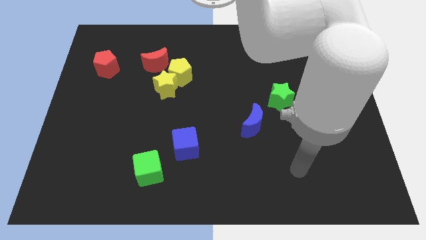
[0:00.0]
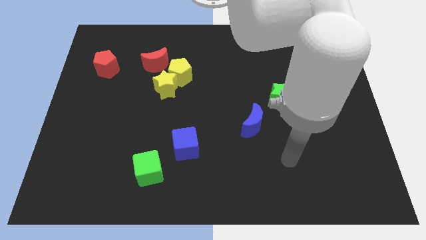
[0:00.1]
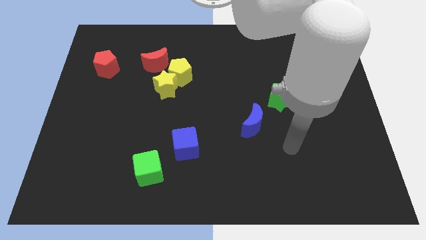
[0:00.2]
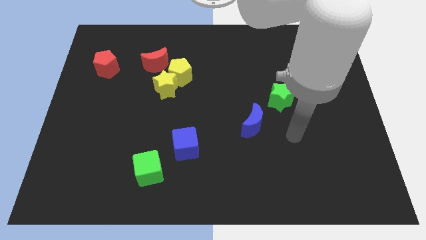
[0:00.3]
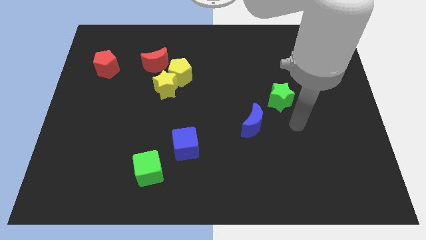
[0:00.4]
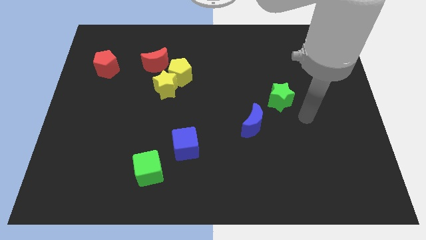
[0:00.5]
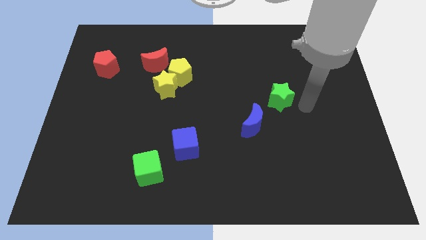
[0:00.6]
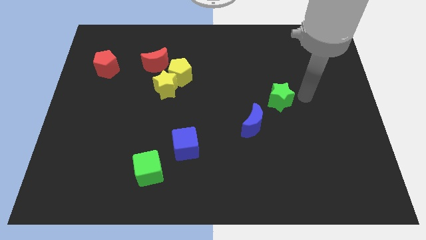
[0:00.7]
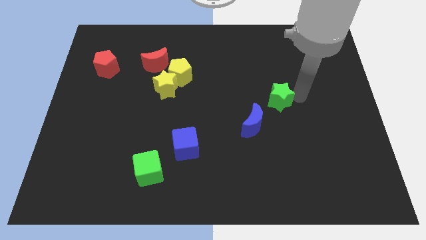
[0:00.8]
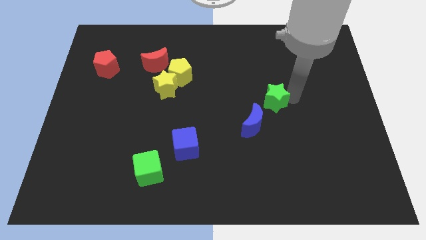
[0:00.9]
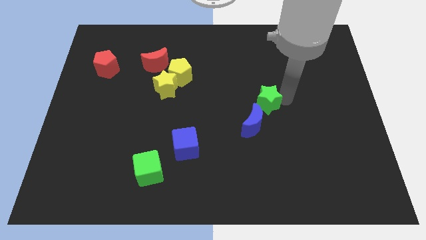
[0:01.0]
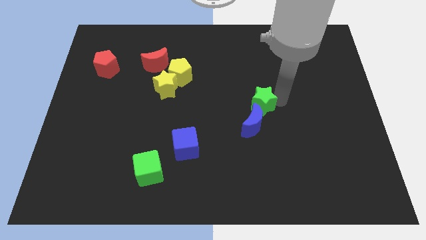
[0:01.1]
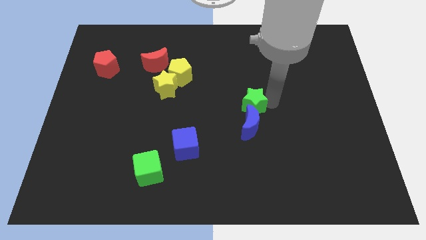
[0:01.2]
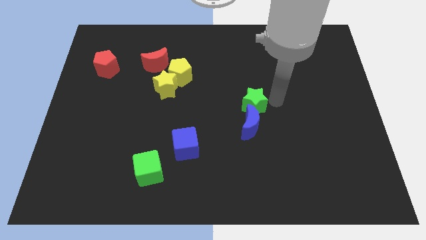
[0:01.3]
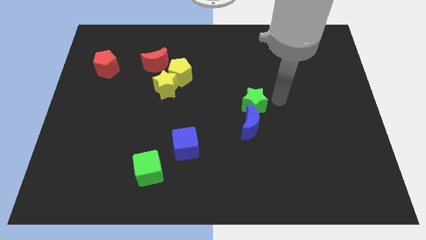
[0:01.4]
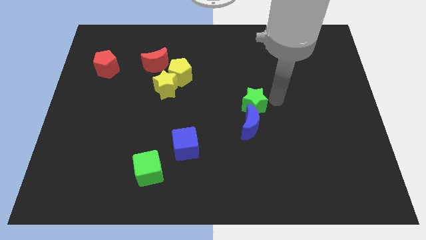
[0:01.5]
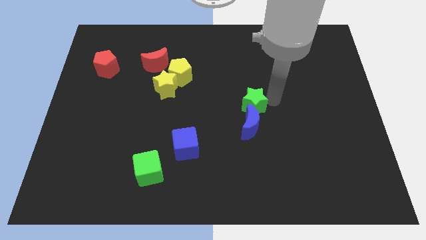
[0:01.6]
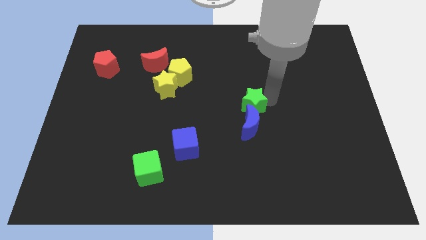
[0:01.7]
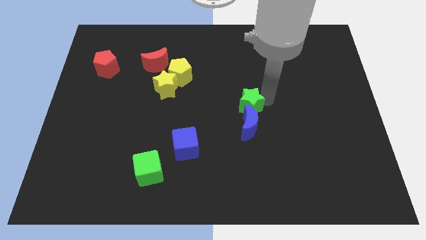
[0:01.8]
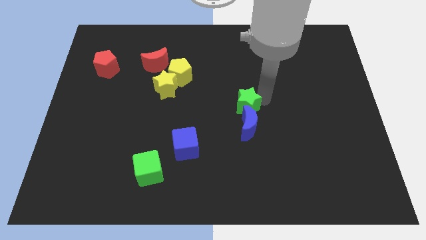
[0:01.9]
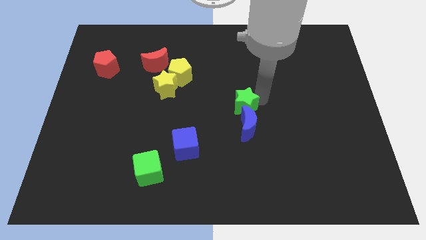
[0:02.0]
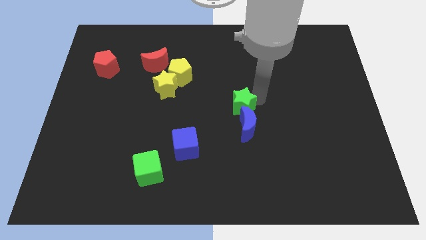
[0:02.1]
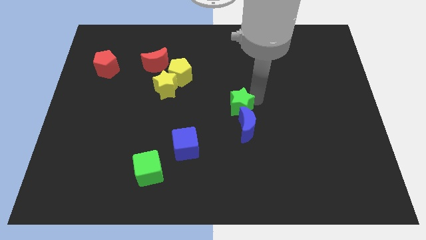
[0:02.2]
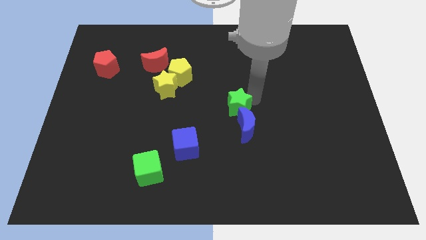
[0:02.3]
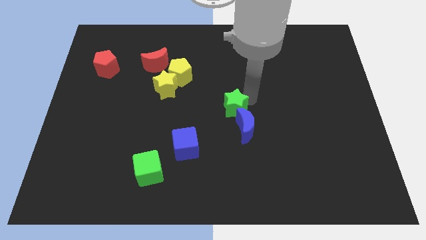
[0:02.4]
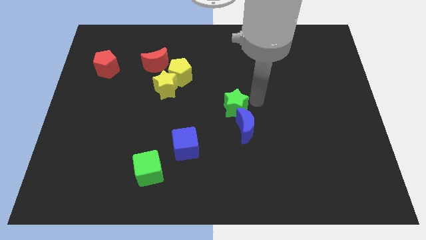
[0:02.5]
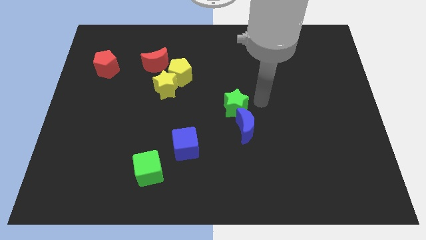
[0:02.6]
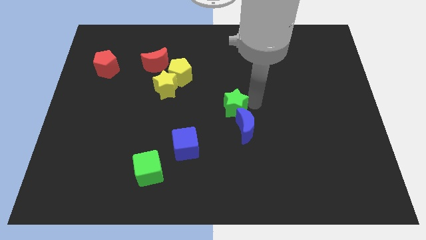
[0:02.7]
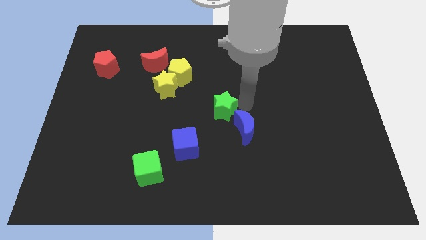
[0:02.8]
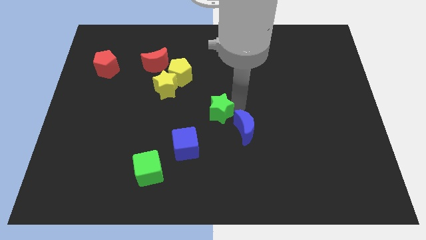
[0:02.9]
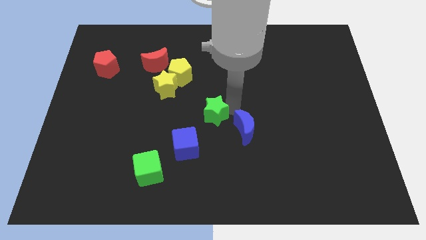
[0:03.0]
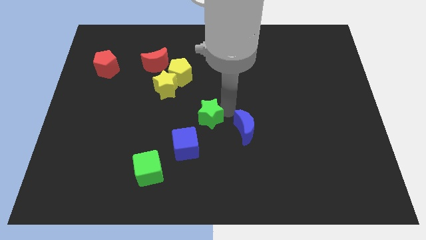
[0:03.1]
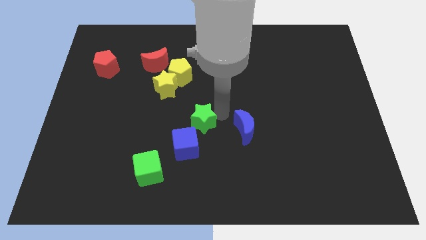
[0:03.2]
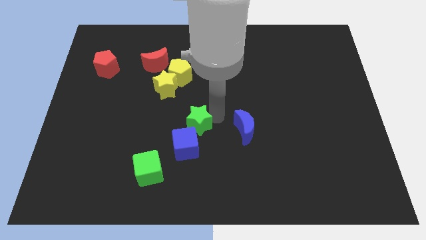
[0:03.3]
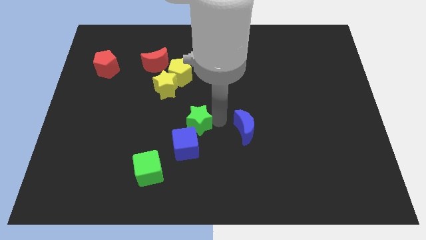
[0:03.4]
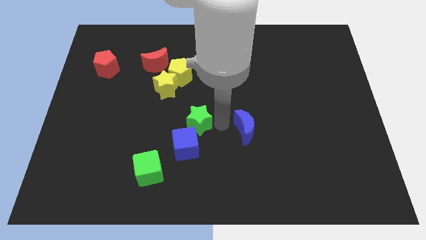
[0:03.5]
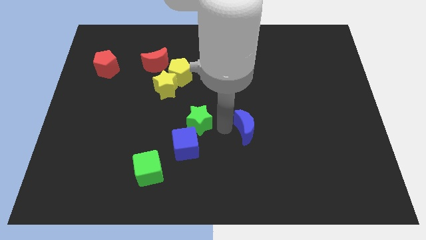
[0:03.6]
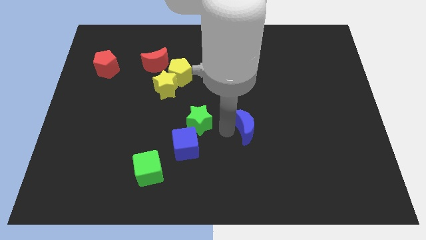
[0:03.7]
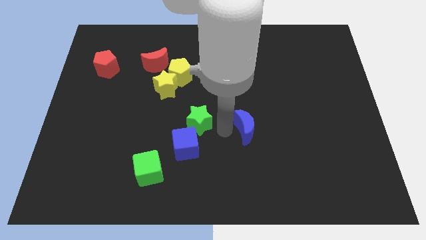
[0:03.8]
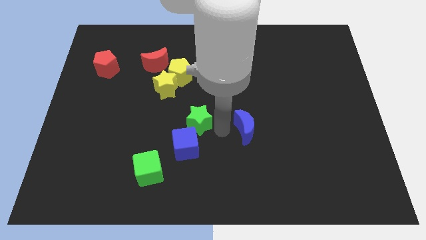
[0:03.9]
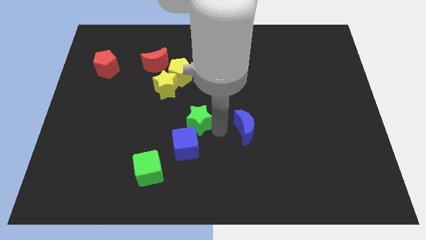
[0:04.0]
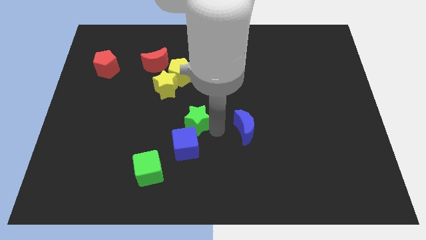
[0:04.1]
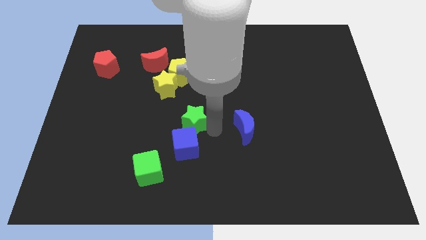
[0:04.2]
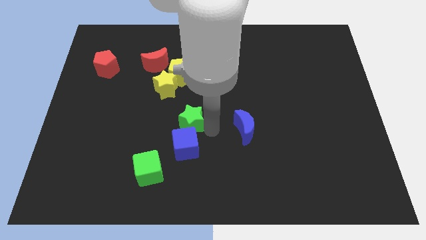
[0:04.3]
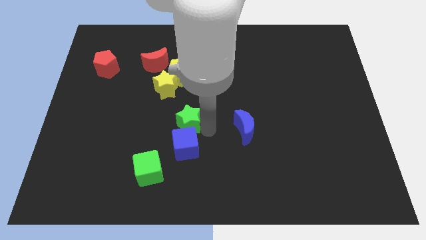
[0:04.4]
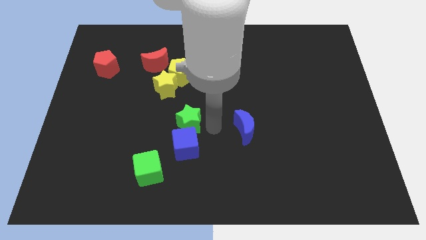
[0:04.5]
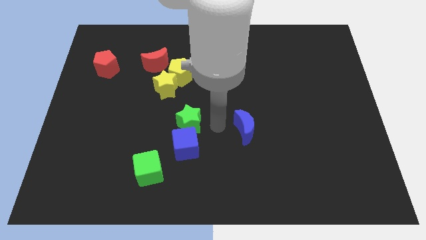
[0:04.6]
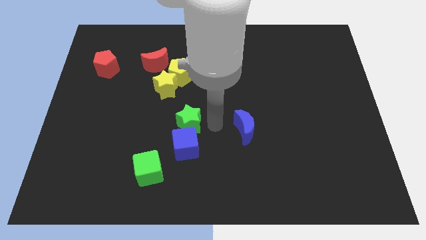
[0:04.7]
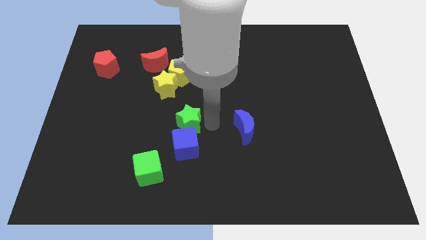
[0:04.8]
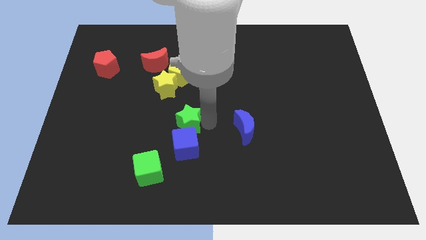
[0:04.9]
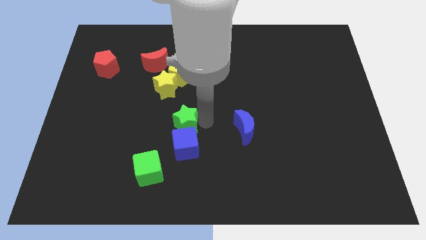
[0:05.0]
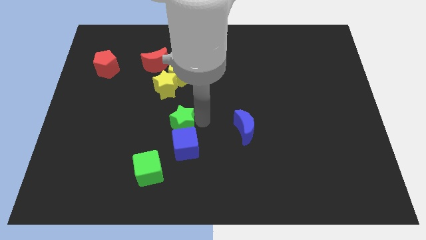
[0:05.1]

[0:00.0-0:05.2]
put the green star to the bottom side of the yellow star

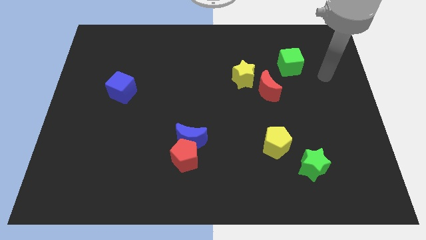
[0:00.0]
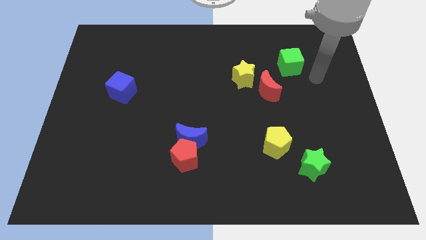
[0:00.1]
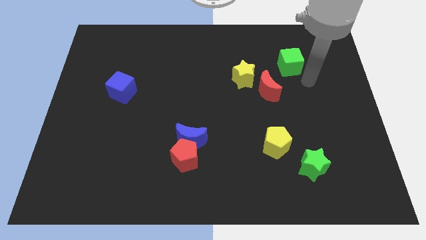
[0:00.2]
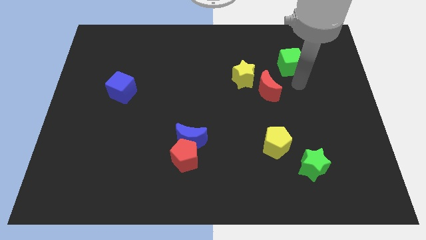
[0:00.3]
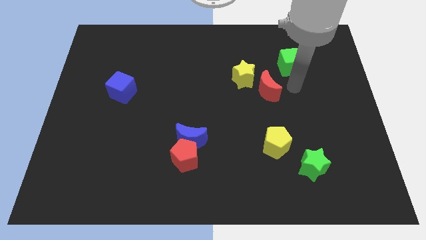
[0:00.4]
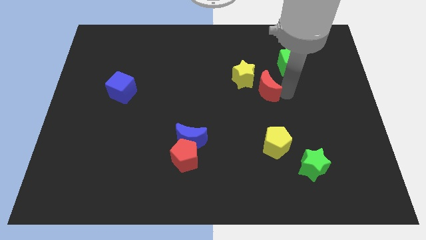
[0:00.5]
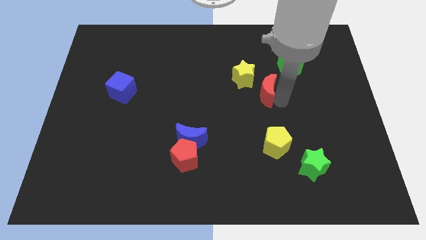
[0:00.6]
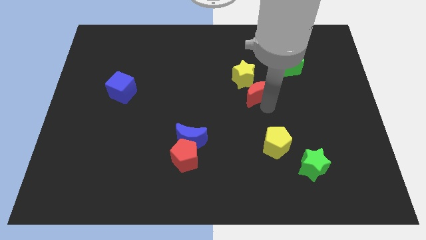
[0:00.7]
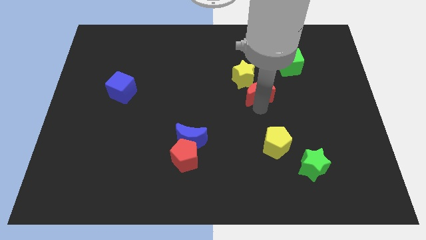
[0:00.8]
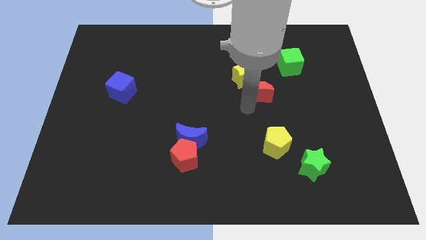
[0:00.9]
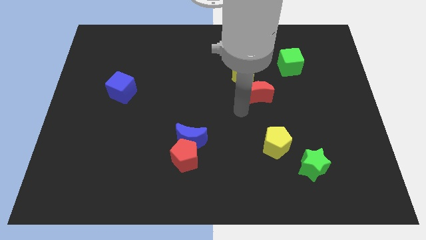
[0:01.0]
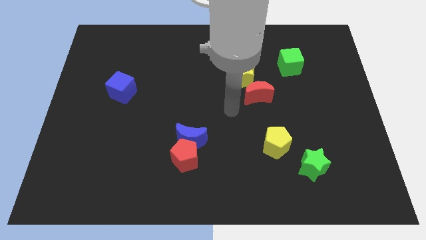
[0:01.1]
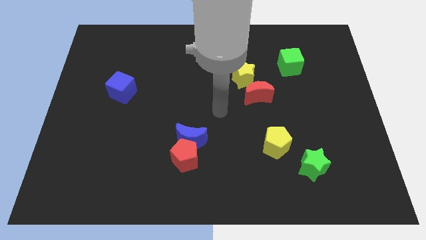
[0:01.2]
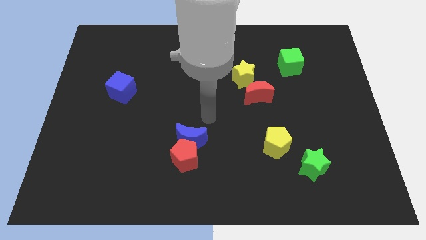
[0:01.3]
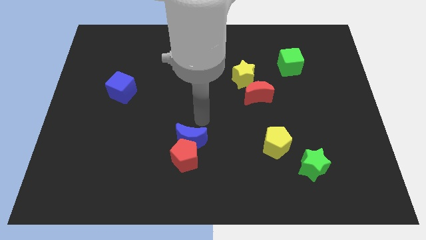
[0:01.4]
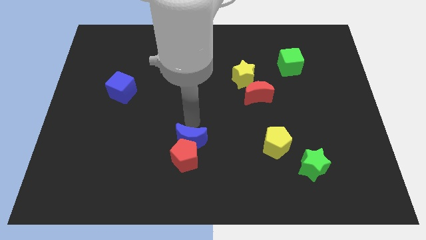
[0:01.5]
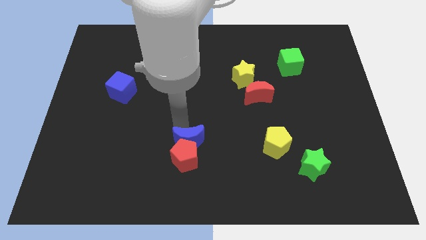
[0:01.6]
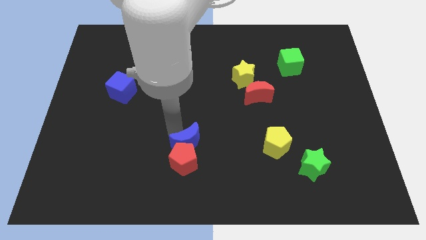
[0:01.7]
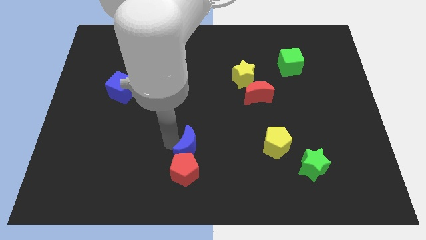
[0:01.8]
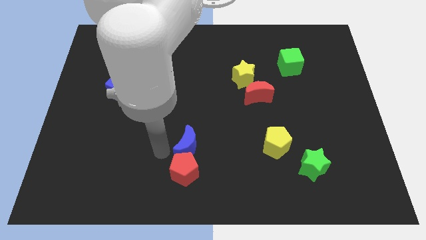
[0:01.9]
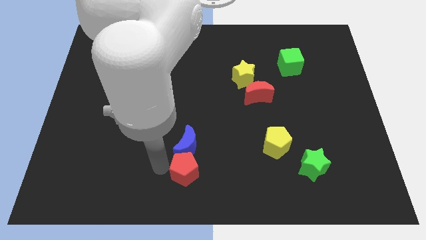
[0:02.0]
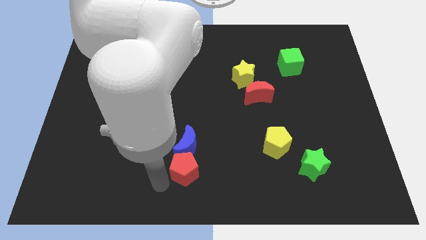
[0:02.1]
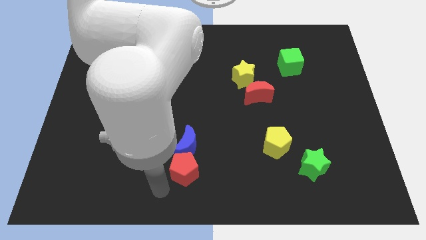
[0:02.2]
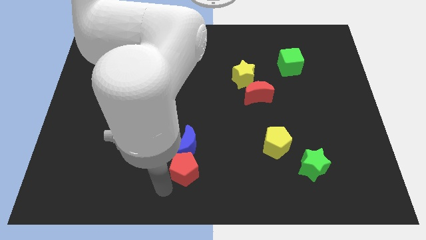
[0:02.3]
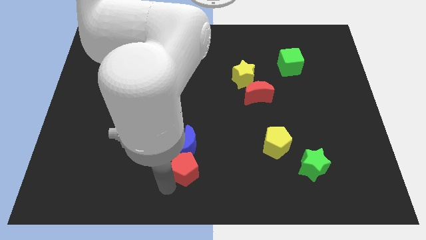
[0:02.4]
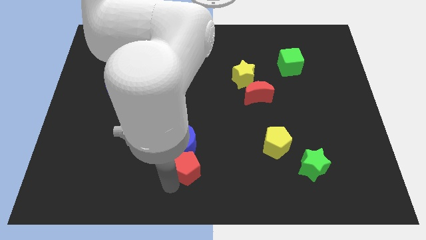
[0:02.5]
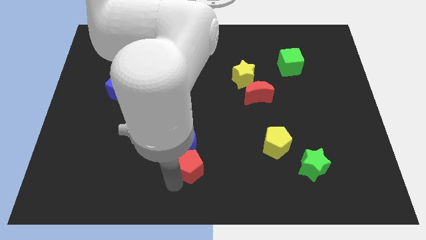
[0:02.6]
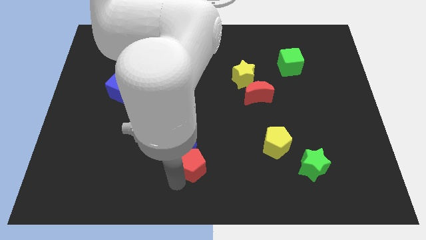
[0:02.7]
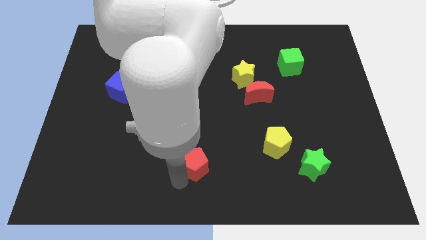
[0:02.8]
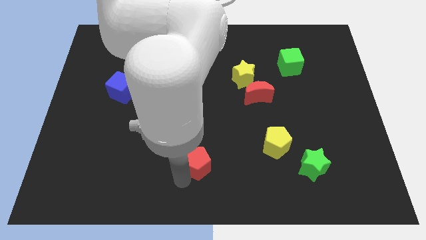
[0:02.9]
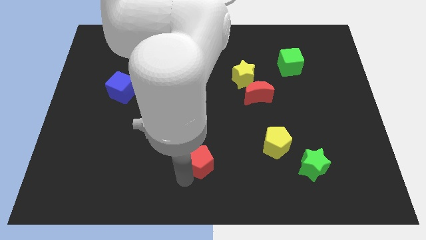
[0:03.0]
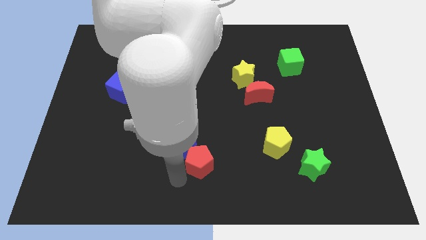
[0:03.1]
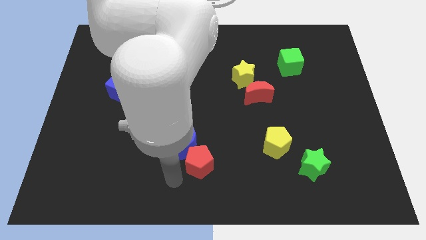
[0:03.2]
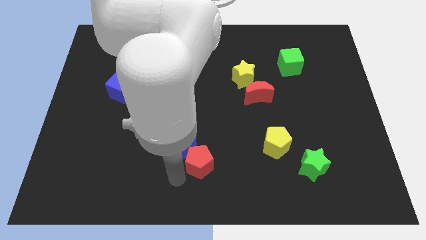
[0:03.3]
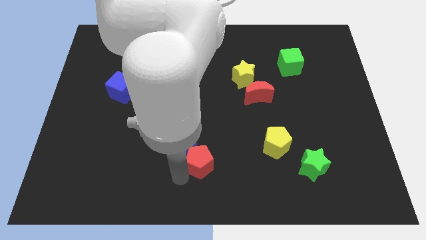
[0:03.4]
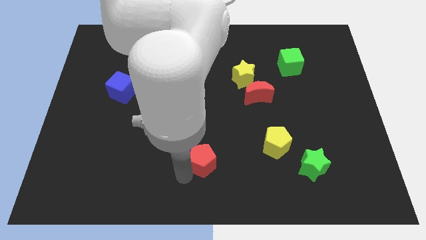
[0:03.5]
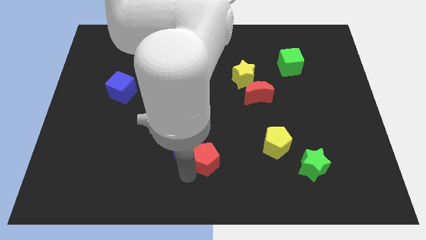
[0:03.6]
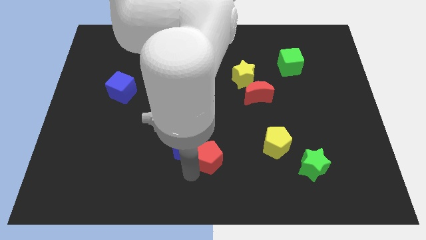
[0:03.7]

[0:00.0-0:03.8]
move the red pentagon just left of the yellow pentagon
